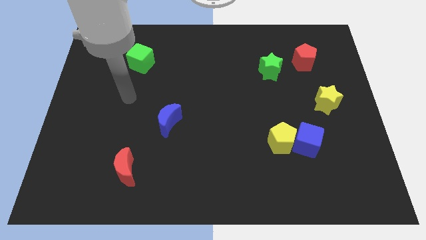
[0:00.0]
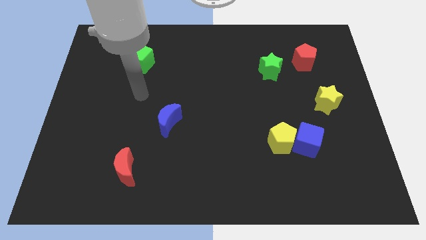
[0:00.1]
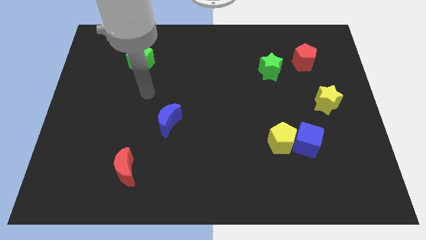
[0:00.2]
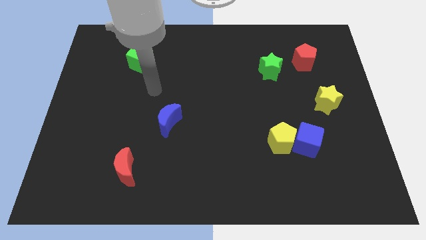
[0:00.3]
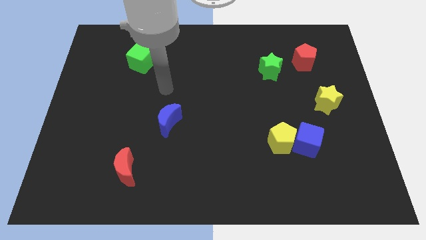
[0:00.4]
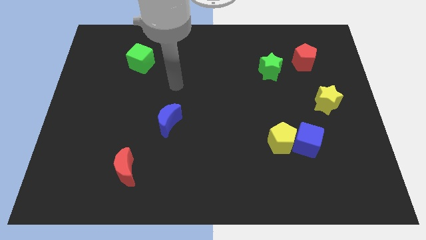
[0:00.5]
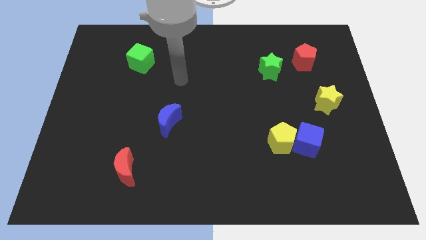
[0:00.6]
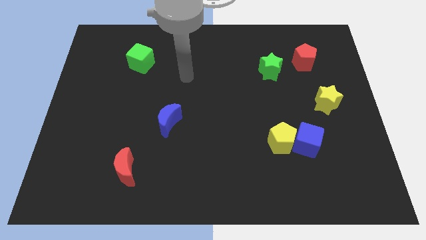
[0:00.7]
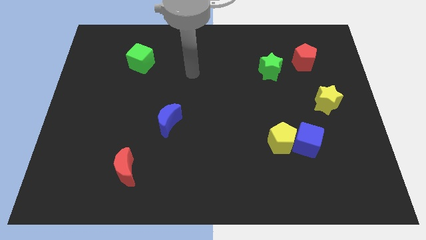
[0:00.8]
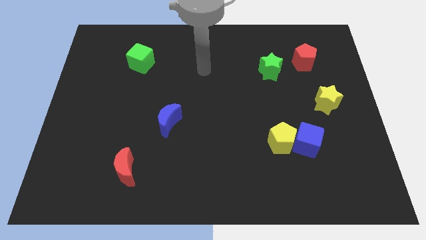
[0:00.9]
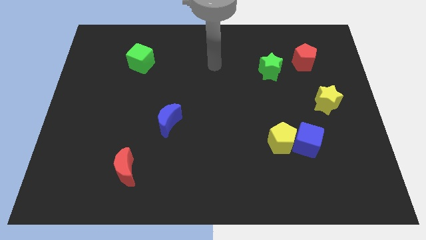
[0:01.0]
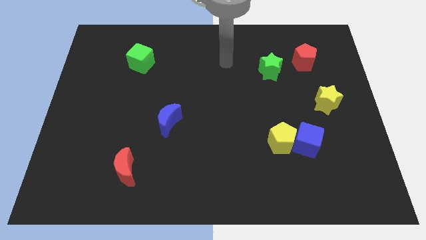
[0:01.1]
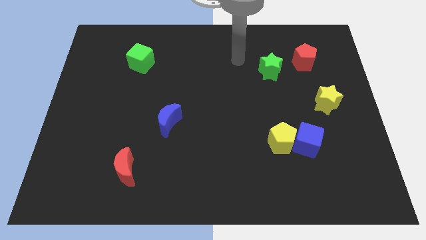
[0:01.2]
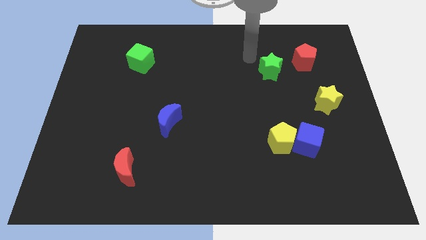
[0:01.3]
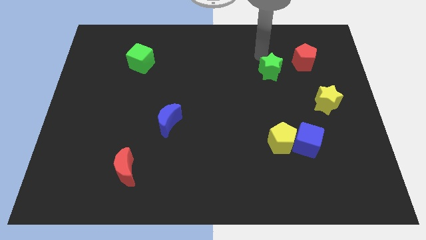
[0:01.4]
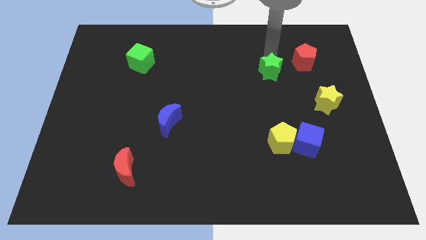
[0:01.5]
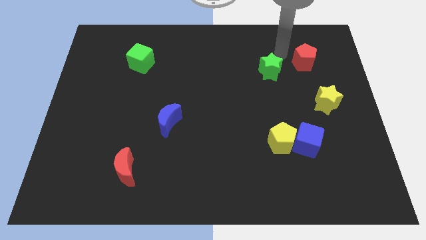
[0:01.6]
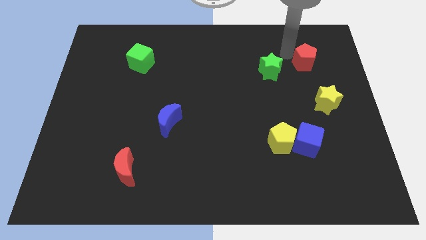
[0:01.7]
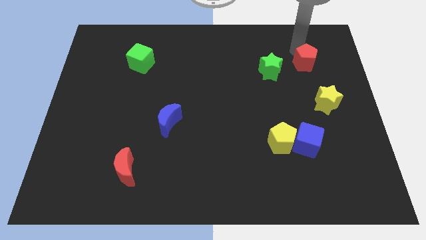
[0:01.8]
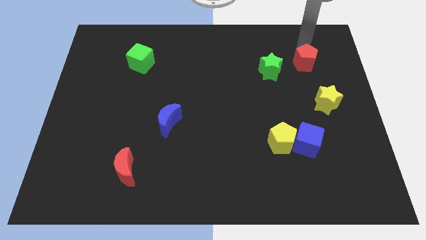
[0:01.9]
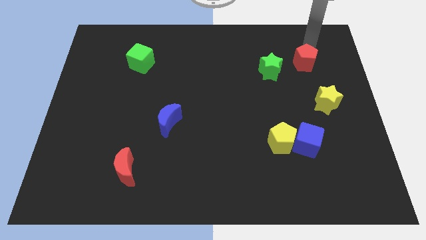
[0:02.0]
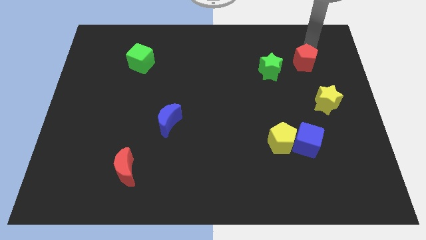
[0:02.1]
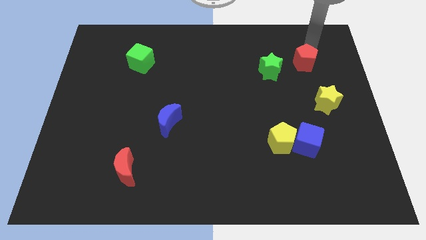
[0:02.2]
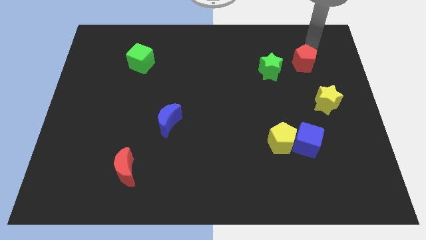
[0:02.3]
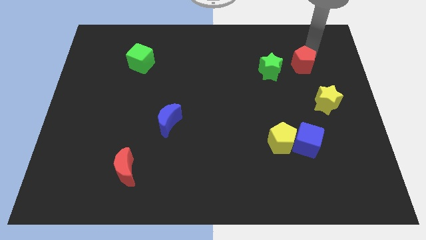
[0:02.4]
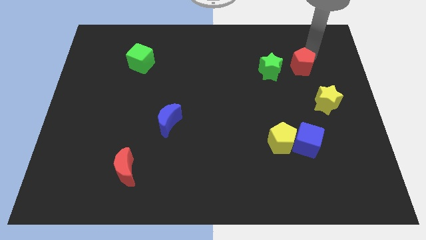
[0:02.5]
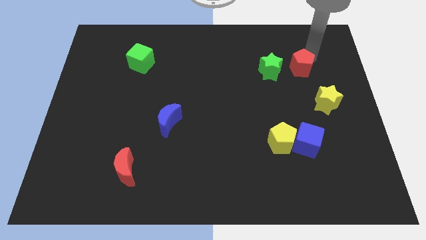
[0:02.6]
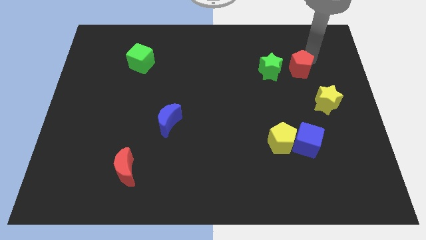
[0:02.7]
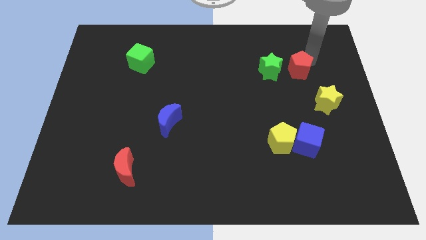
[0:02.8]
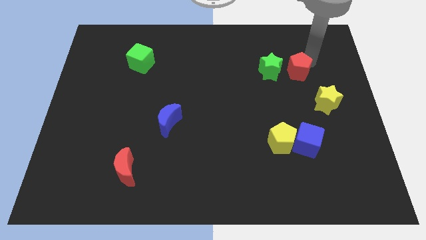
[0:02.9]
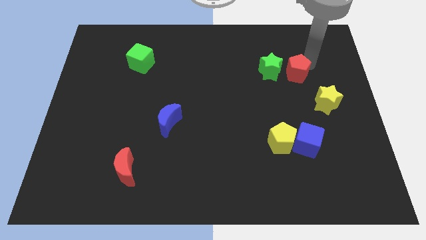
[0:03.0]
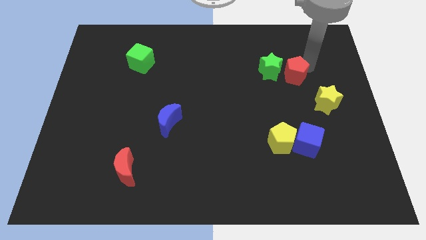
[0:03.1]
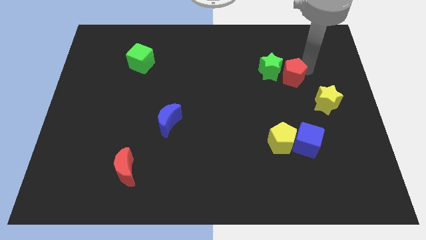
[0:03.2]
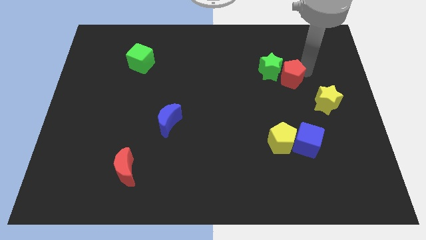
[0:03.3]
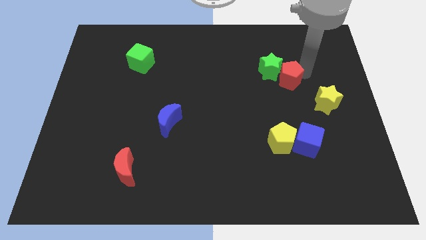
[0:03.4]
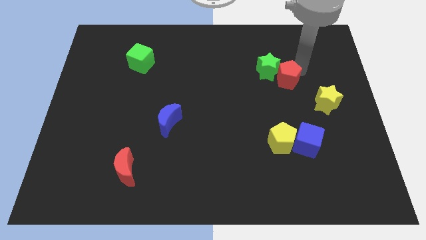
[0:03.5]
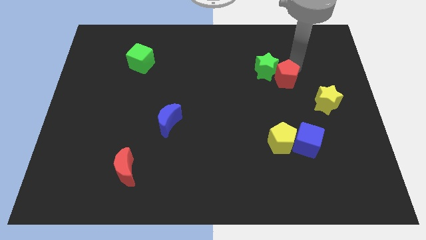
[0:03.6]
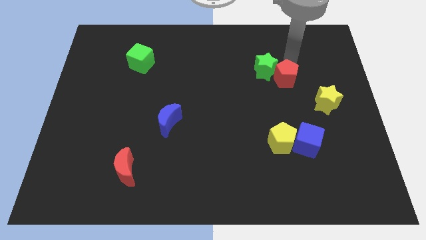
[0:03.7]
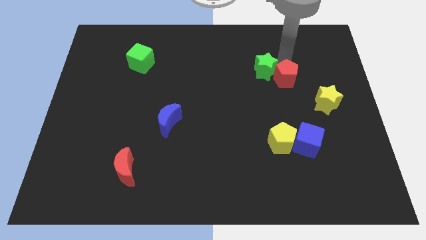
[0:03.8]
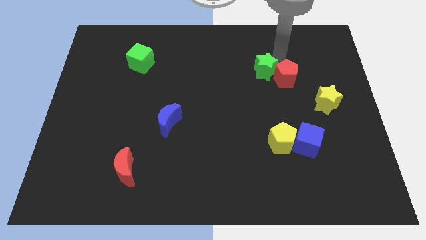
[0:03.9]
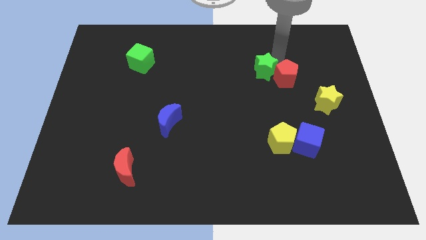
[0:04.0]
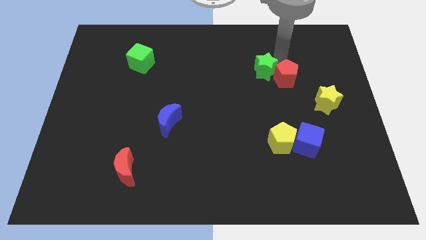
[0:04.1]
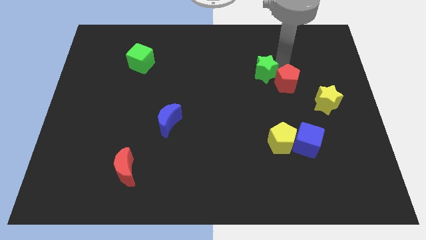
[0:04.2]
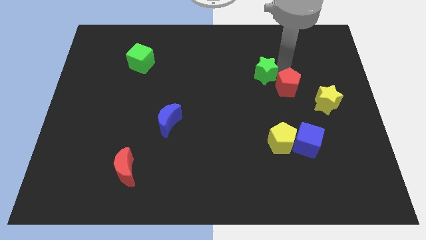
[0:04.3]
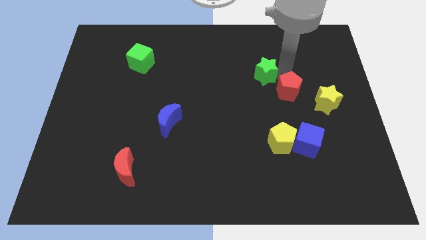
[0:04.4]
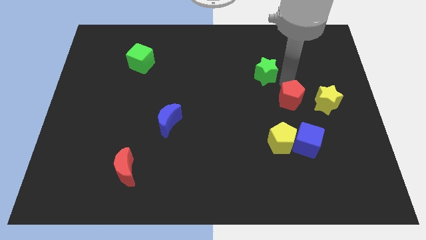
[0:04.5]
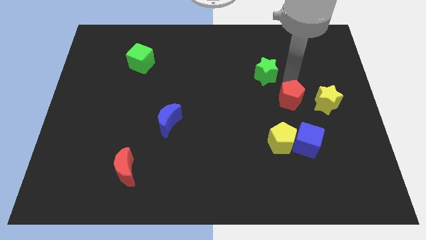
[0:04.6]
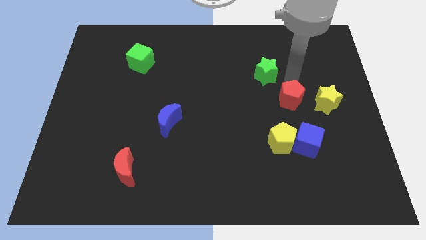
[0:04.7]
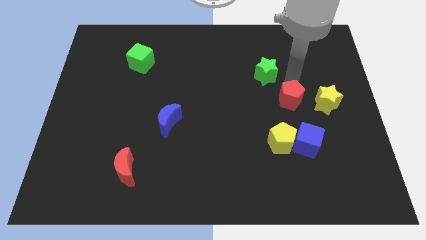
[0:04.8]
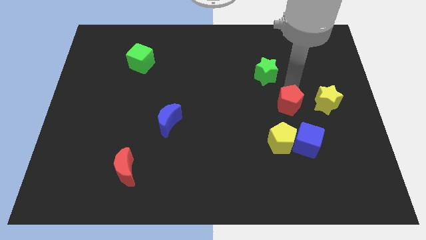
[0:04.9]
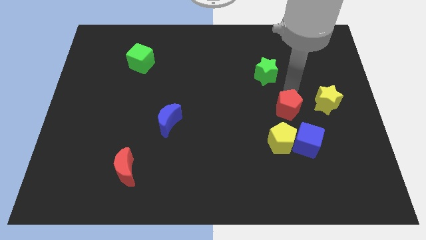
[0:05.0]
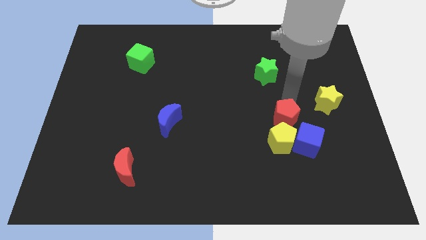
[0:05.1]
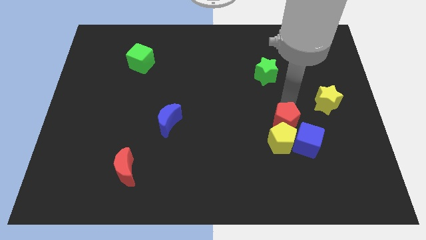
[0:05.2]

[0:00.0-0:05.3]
move the red pentagon close to the yellow pentagon

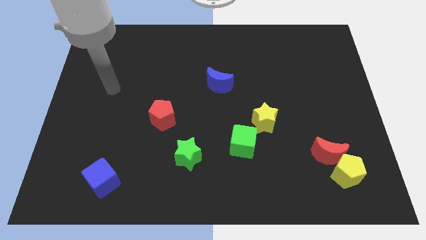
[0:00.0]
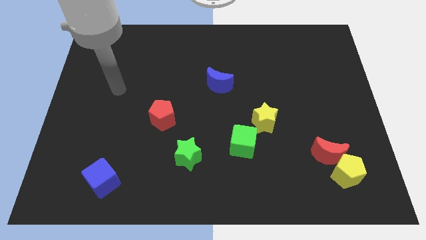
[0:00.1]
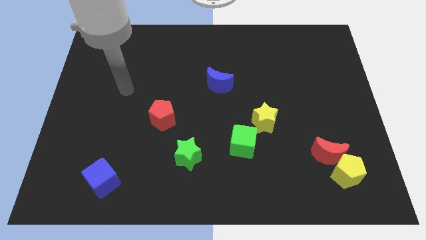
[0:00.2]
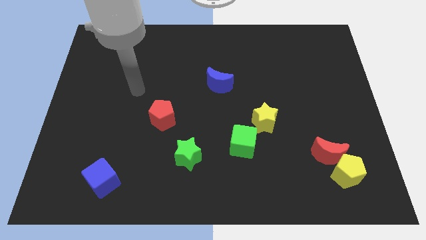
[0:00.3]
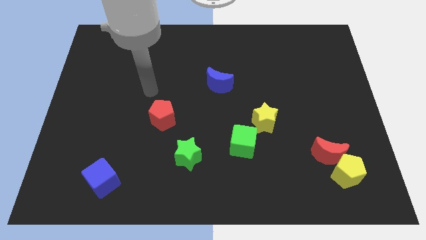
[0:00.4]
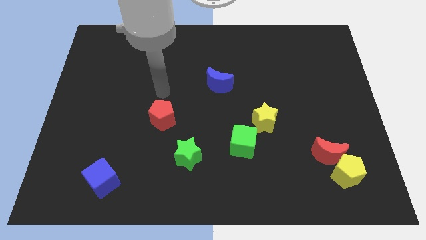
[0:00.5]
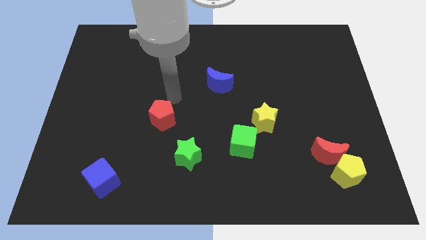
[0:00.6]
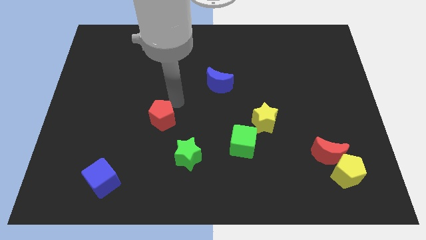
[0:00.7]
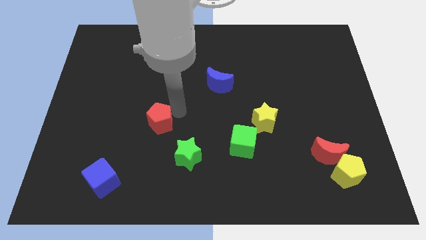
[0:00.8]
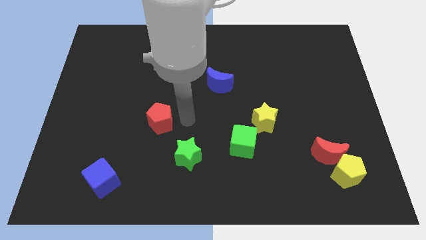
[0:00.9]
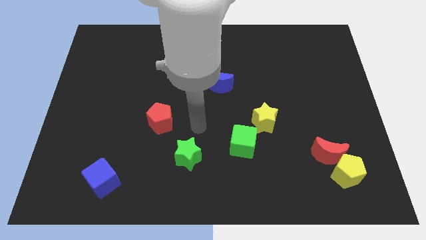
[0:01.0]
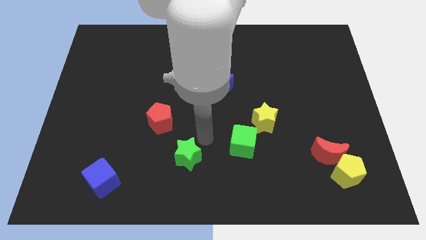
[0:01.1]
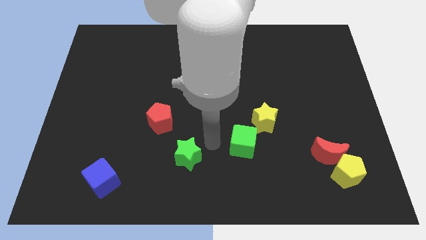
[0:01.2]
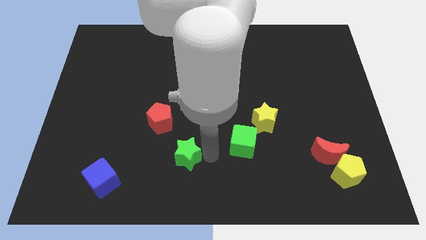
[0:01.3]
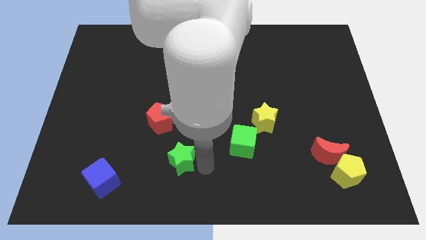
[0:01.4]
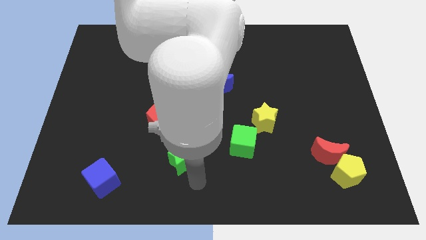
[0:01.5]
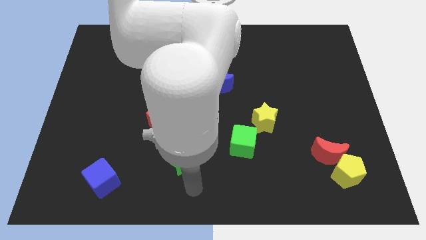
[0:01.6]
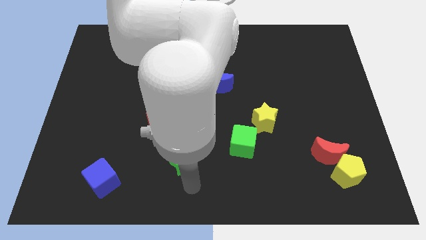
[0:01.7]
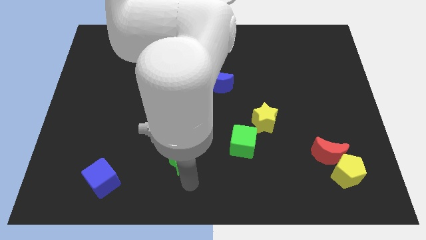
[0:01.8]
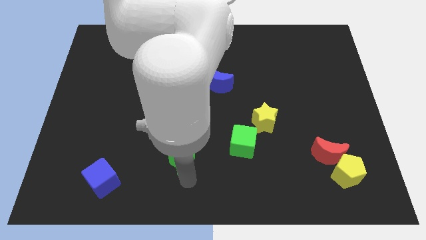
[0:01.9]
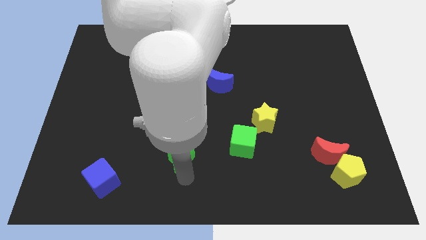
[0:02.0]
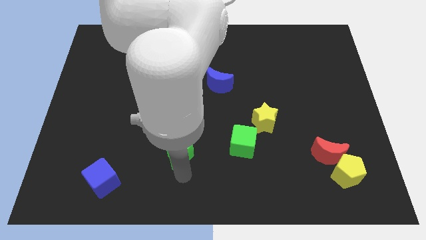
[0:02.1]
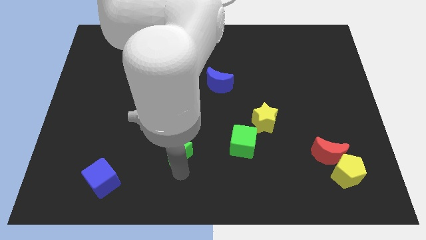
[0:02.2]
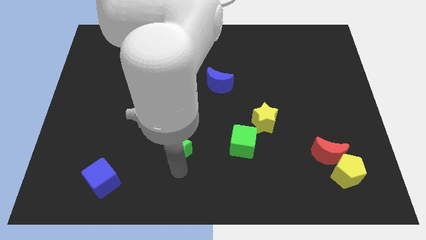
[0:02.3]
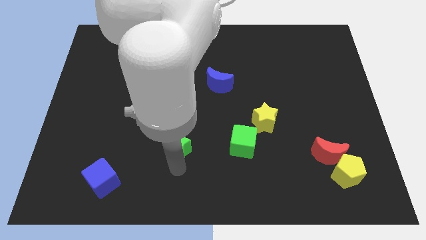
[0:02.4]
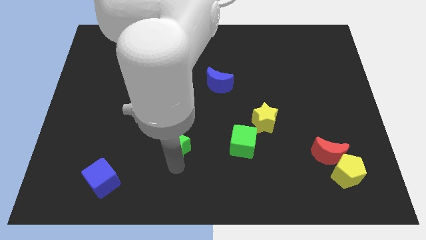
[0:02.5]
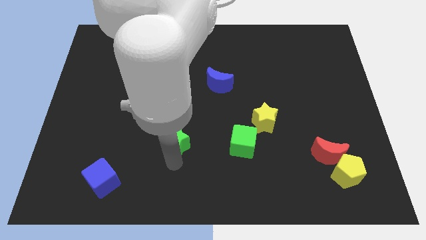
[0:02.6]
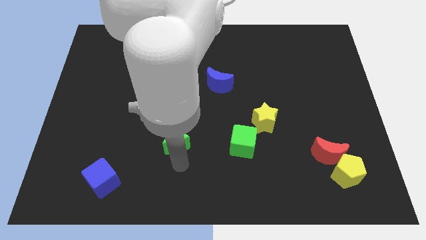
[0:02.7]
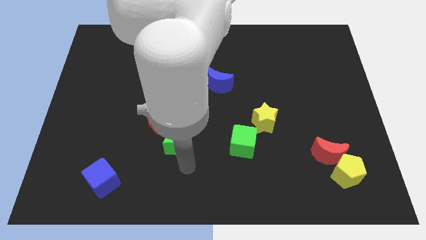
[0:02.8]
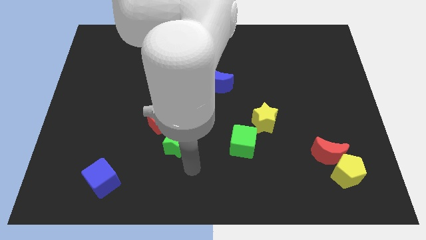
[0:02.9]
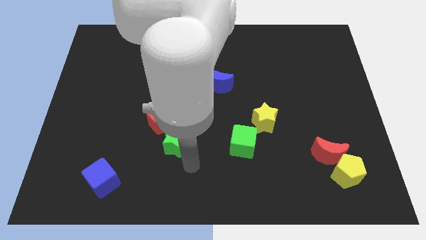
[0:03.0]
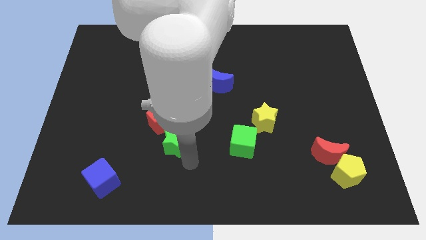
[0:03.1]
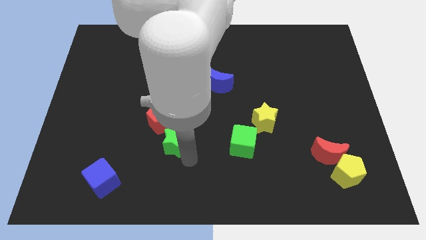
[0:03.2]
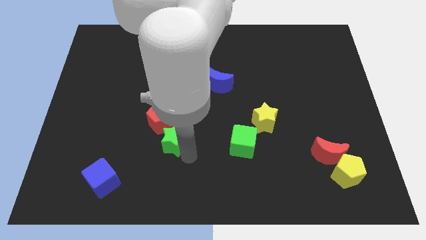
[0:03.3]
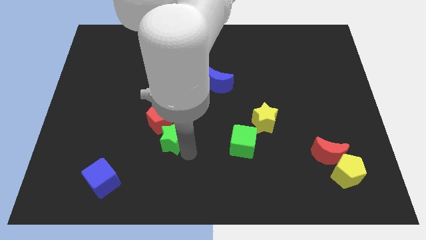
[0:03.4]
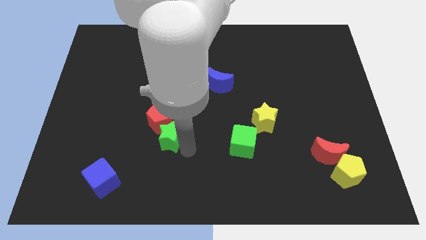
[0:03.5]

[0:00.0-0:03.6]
slide the green star close to the red pentagon
